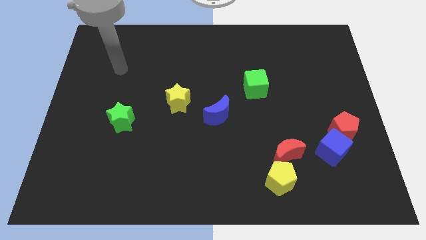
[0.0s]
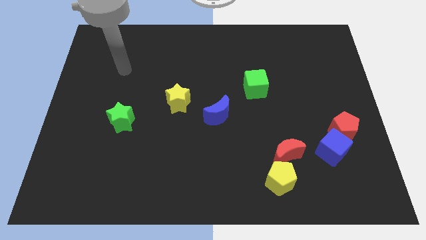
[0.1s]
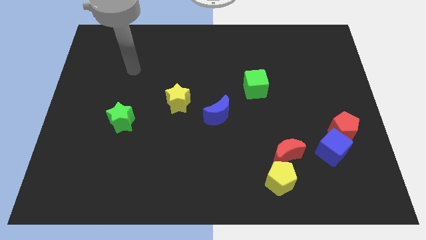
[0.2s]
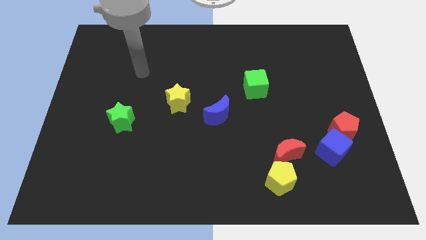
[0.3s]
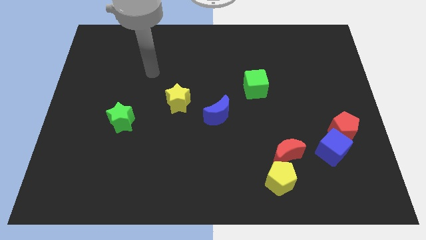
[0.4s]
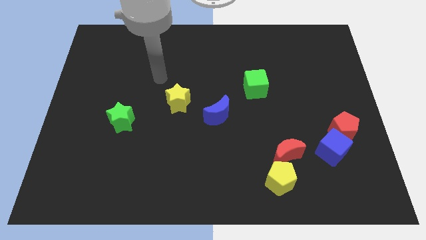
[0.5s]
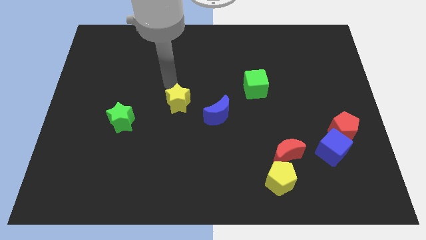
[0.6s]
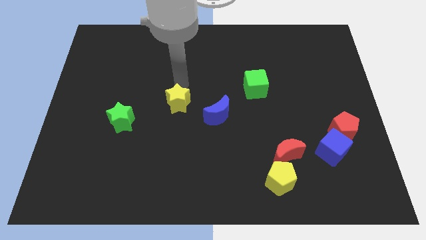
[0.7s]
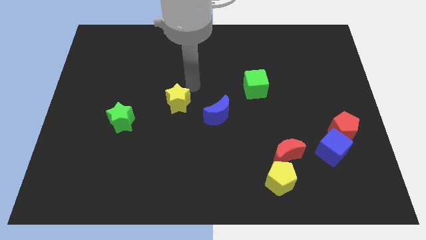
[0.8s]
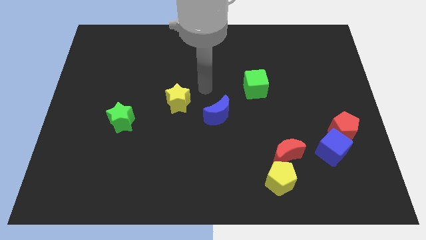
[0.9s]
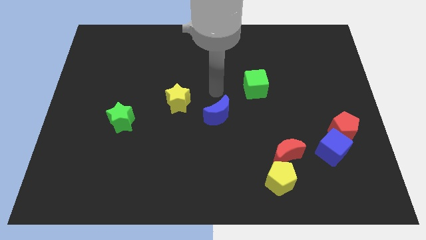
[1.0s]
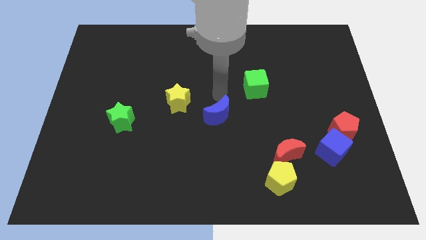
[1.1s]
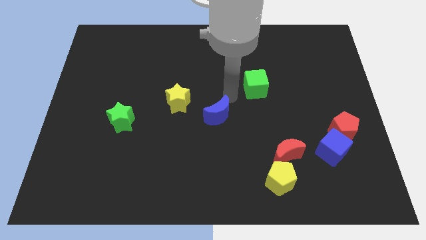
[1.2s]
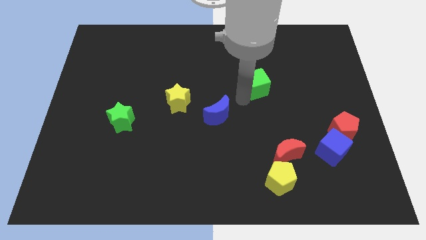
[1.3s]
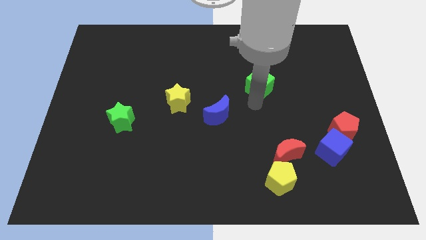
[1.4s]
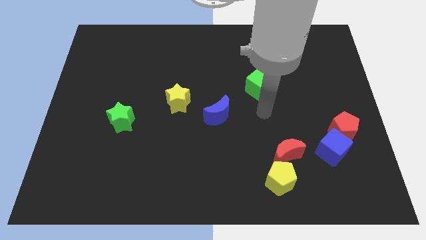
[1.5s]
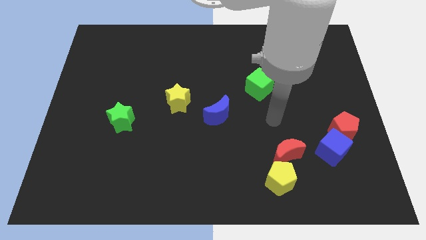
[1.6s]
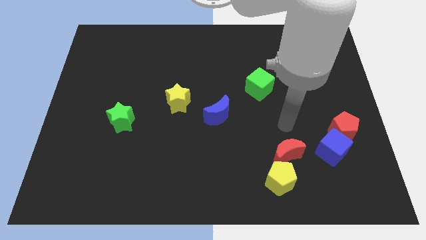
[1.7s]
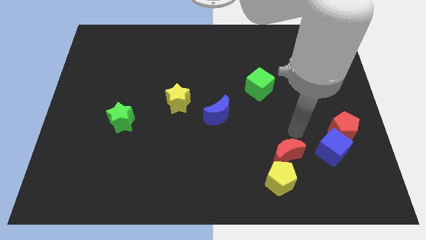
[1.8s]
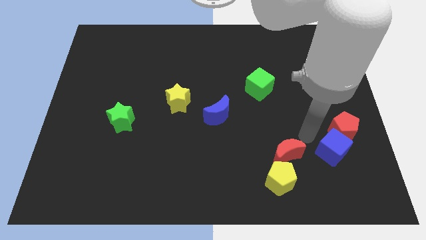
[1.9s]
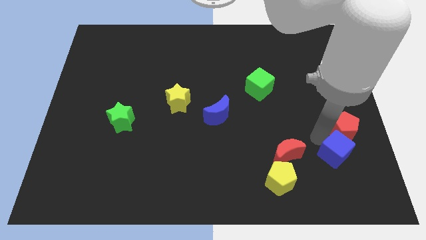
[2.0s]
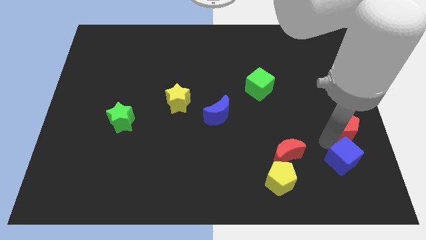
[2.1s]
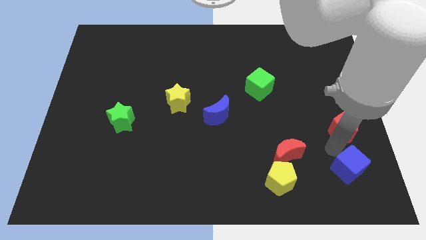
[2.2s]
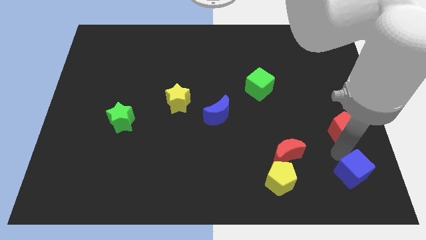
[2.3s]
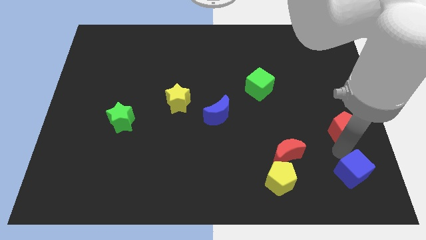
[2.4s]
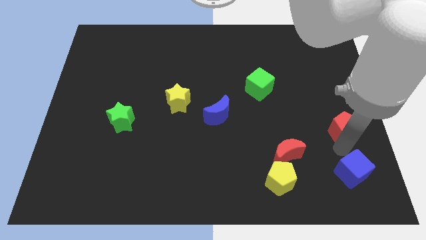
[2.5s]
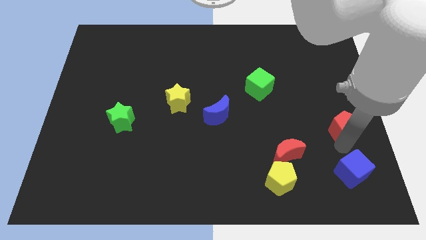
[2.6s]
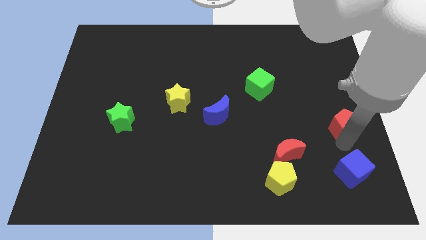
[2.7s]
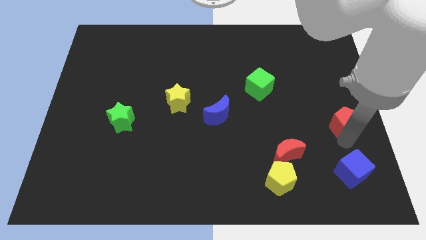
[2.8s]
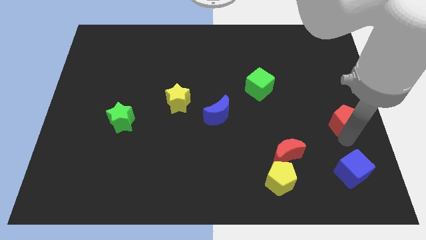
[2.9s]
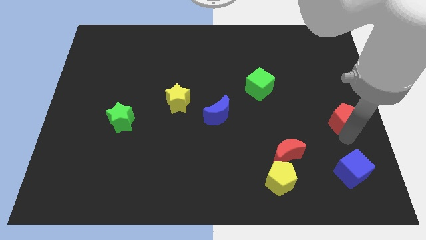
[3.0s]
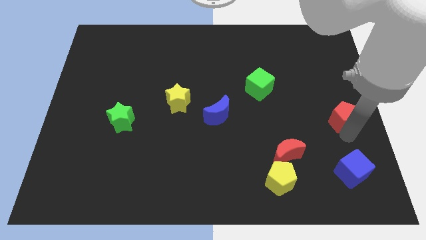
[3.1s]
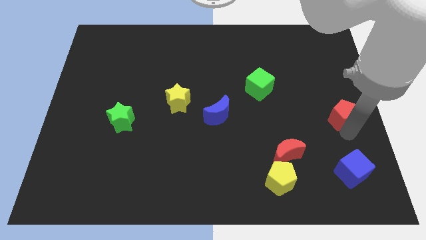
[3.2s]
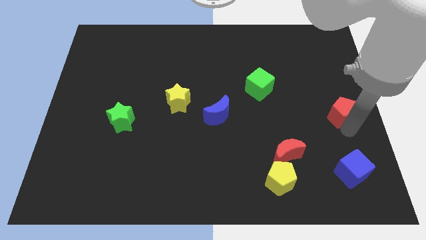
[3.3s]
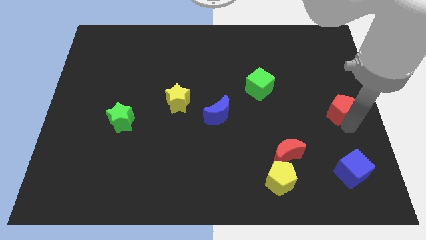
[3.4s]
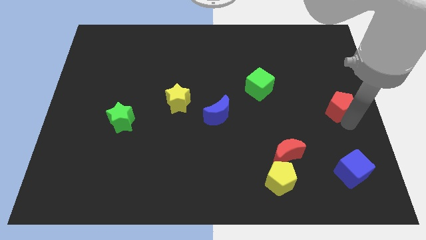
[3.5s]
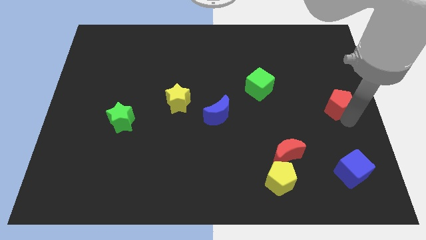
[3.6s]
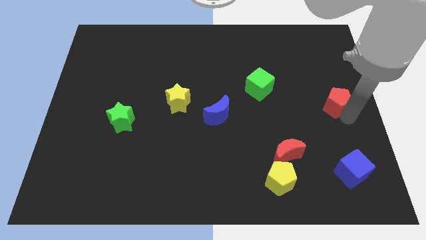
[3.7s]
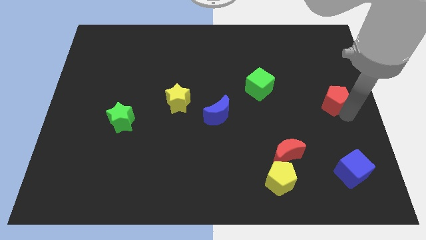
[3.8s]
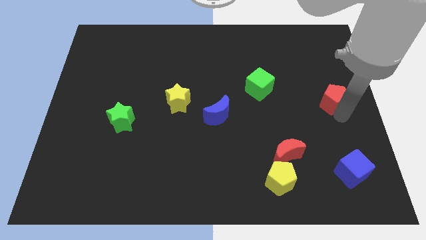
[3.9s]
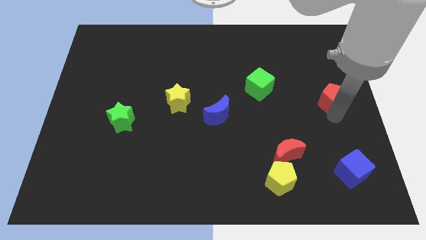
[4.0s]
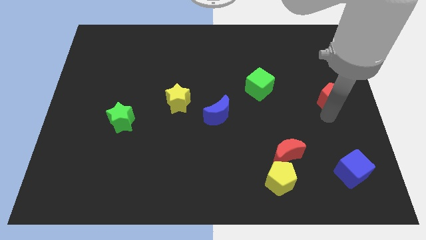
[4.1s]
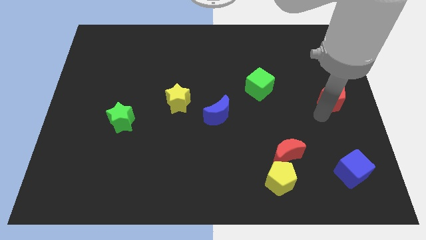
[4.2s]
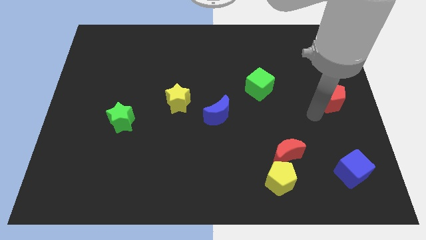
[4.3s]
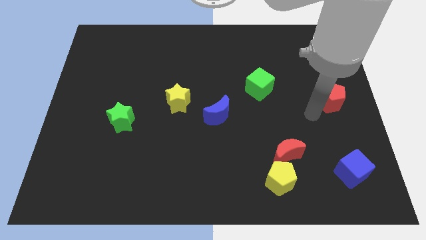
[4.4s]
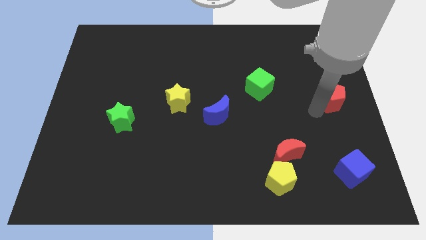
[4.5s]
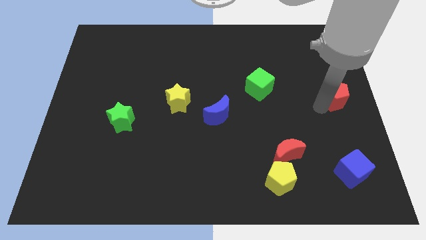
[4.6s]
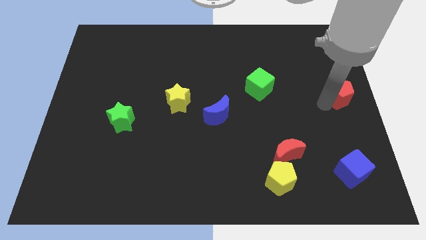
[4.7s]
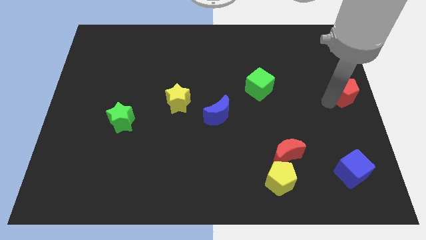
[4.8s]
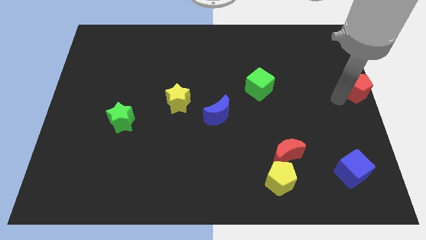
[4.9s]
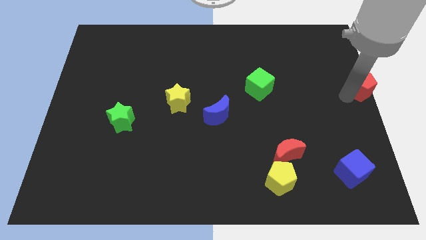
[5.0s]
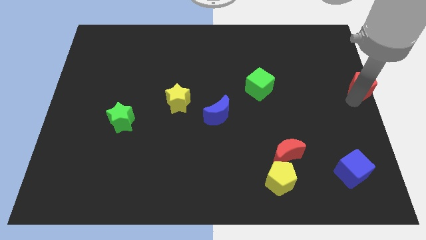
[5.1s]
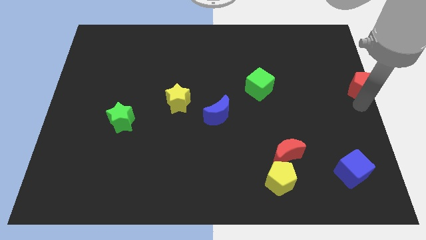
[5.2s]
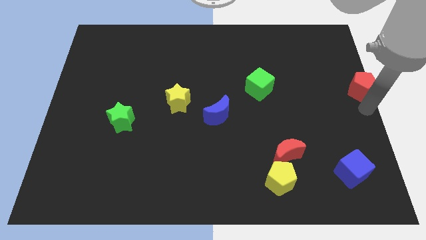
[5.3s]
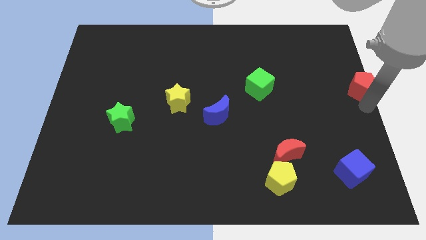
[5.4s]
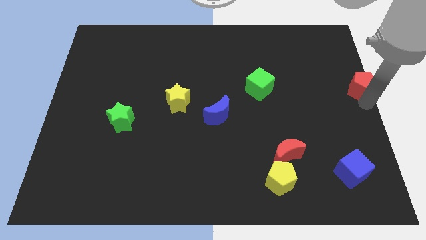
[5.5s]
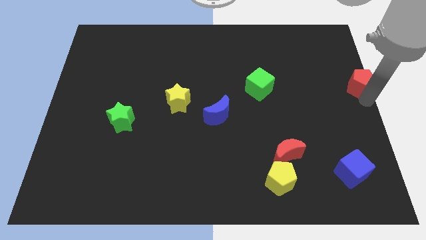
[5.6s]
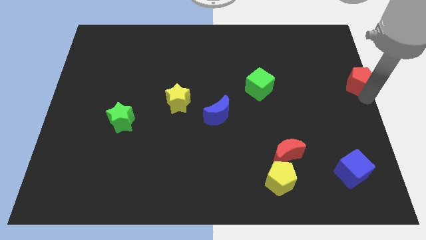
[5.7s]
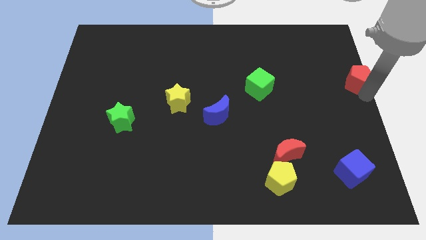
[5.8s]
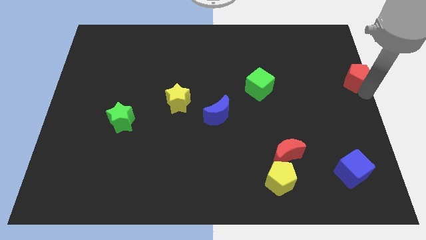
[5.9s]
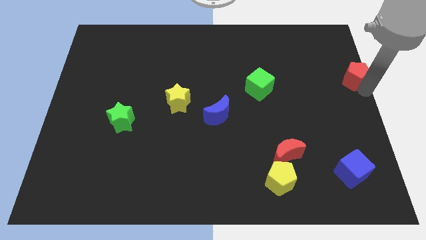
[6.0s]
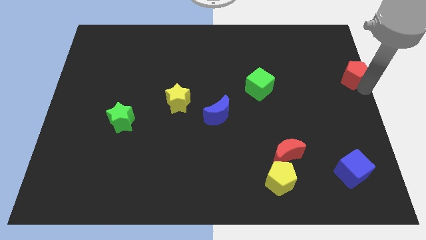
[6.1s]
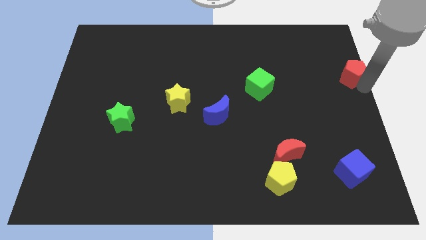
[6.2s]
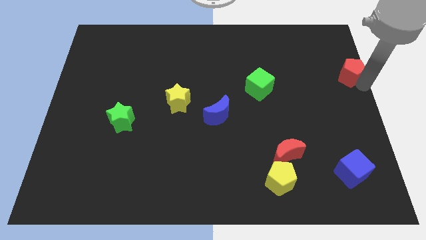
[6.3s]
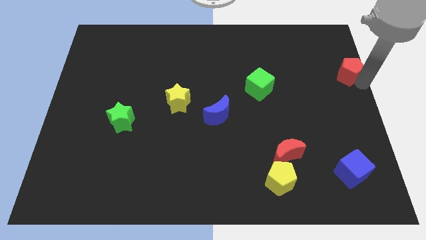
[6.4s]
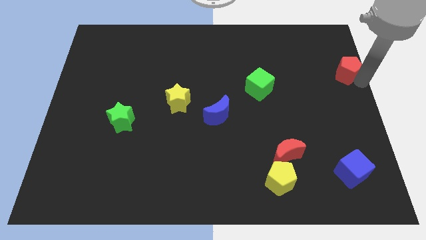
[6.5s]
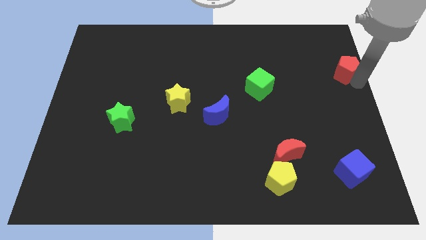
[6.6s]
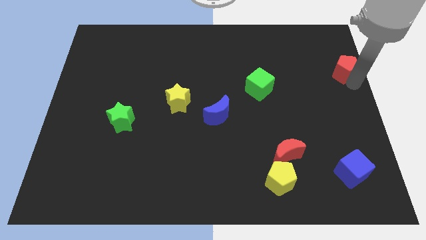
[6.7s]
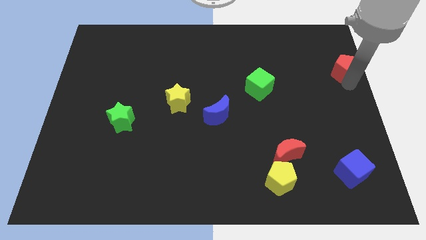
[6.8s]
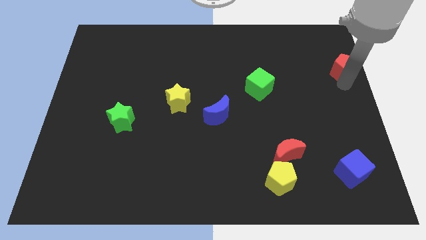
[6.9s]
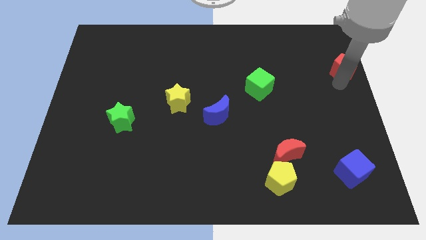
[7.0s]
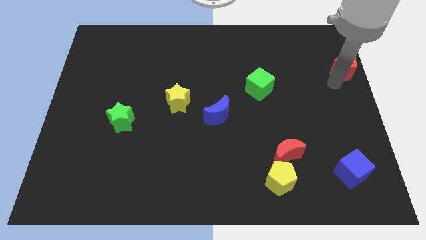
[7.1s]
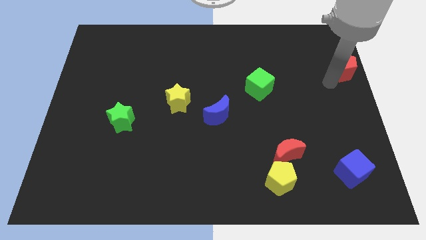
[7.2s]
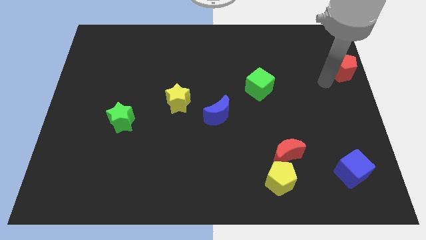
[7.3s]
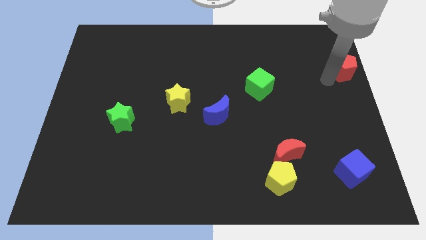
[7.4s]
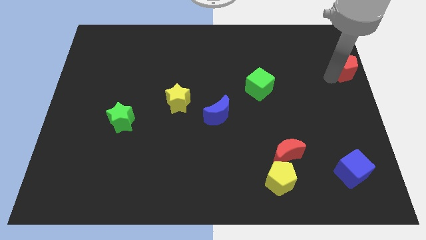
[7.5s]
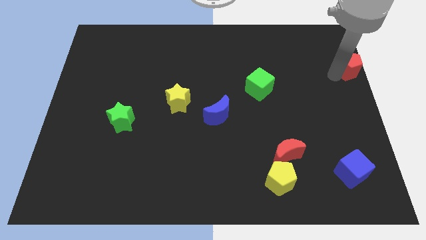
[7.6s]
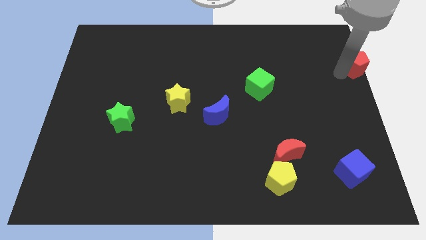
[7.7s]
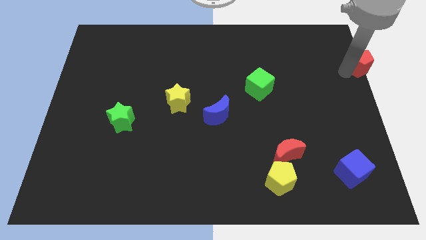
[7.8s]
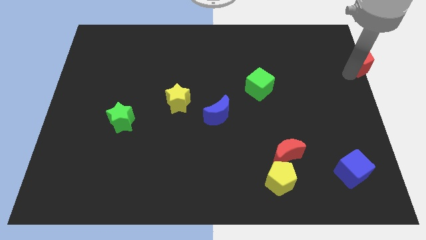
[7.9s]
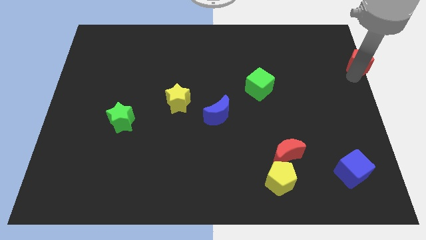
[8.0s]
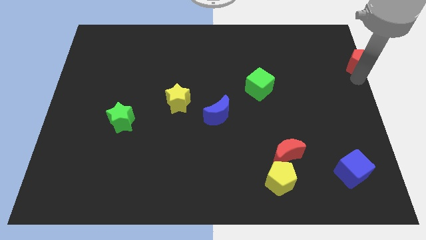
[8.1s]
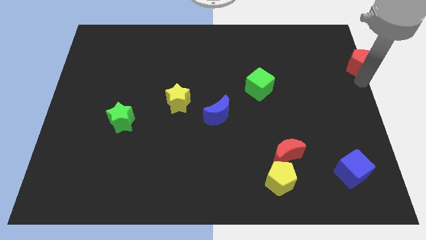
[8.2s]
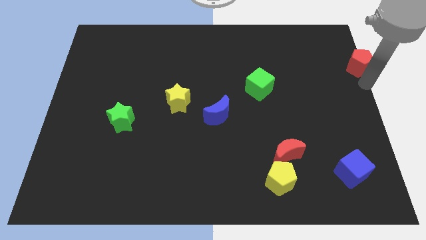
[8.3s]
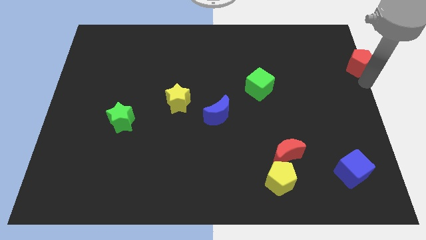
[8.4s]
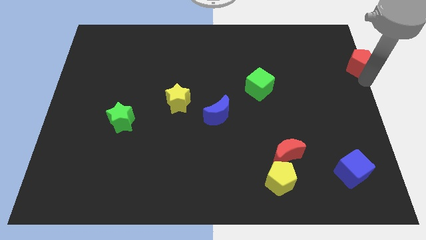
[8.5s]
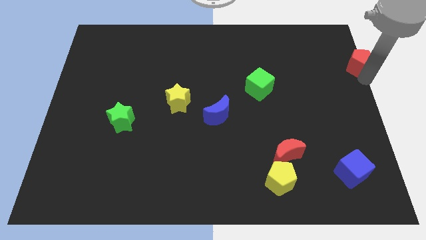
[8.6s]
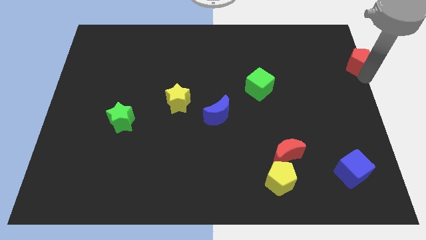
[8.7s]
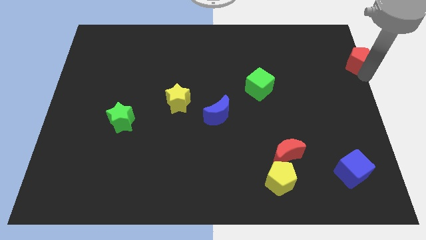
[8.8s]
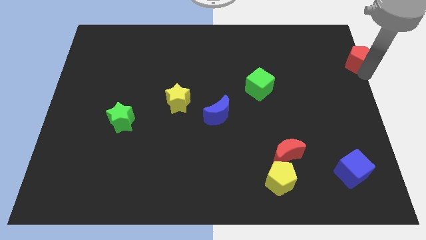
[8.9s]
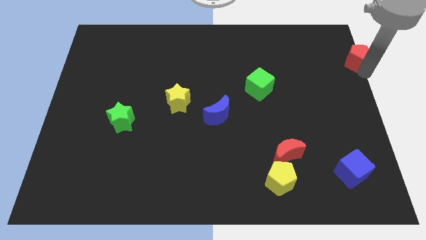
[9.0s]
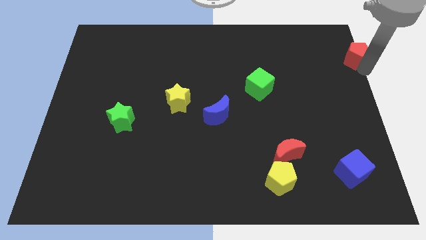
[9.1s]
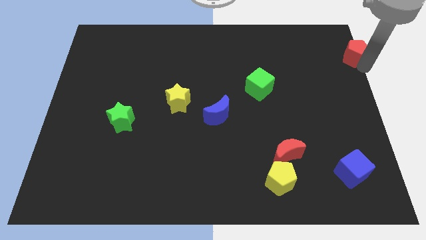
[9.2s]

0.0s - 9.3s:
move the red pentagon to the top right
